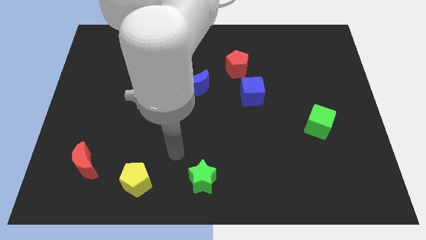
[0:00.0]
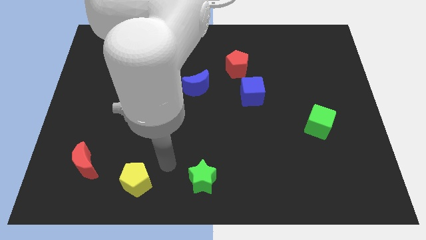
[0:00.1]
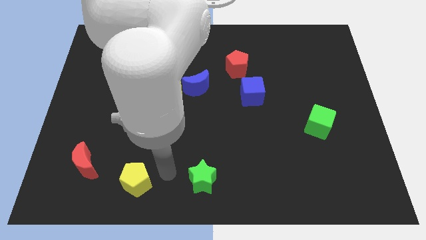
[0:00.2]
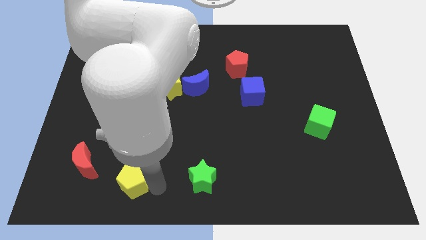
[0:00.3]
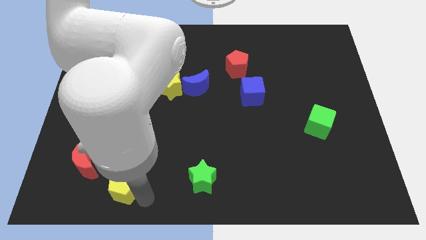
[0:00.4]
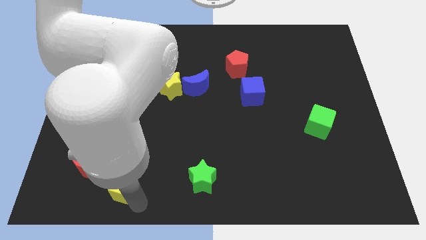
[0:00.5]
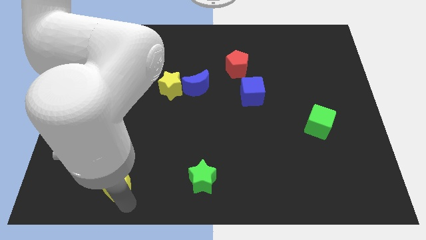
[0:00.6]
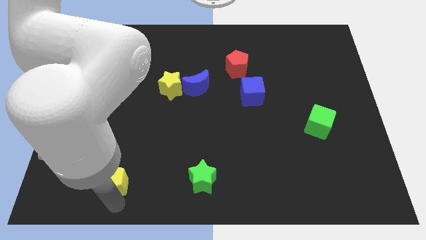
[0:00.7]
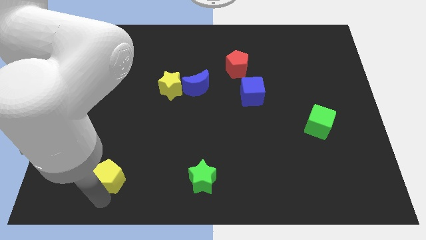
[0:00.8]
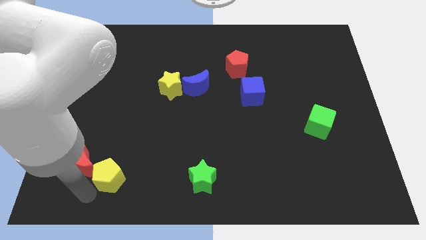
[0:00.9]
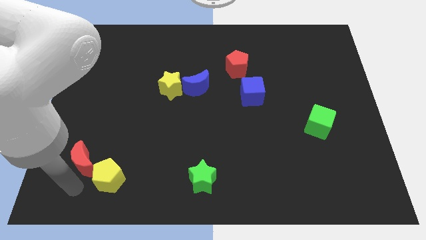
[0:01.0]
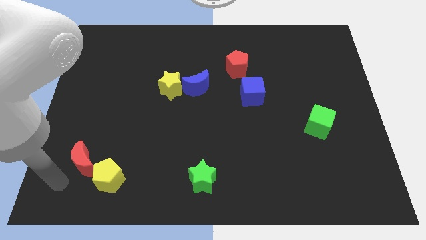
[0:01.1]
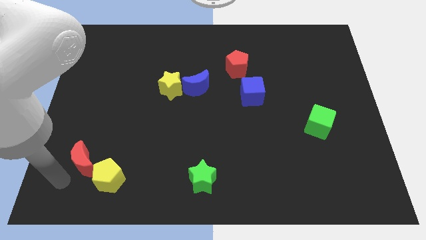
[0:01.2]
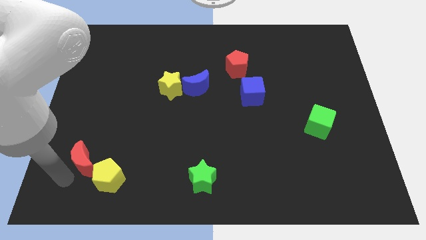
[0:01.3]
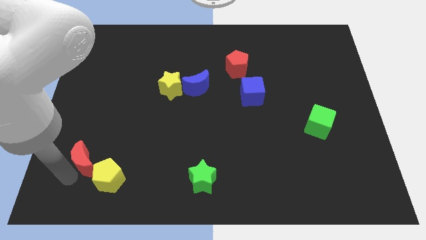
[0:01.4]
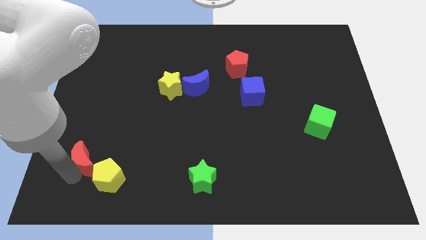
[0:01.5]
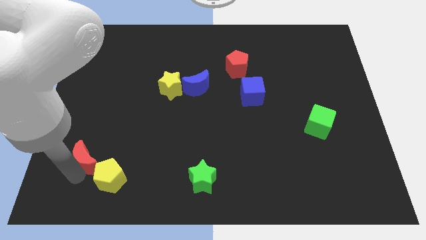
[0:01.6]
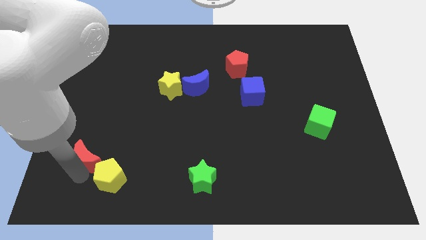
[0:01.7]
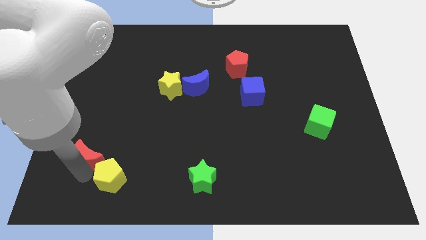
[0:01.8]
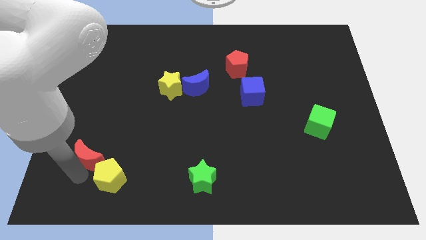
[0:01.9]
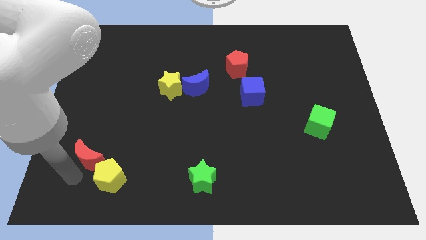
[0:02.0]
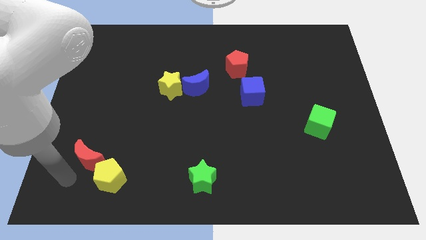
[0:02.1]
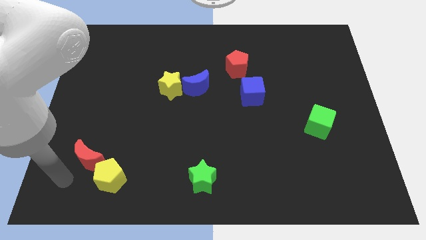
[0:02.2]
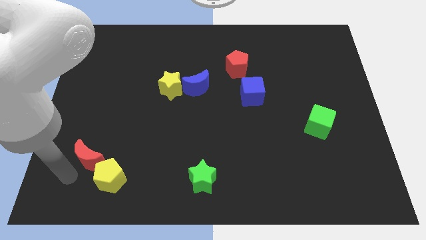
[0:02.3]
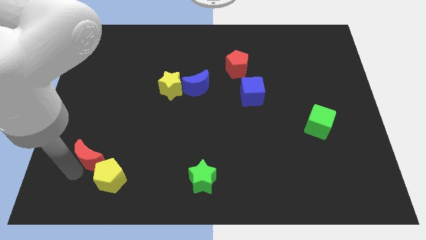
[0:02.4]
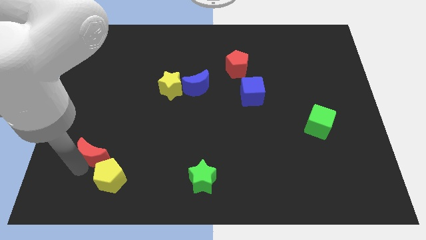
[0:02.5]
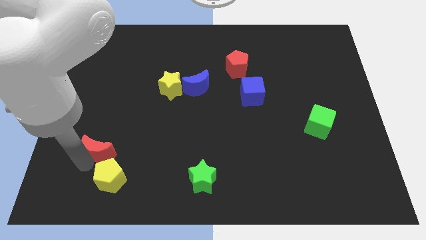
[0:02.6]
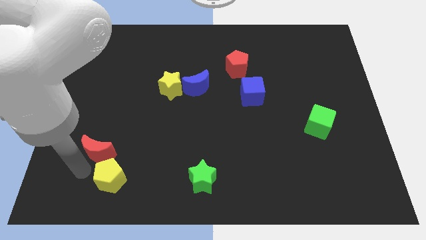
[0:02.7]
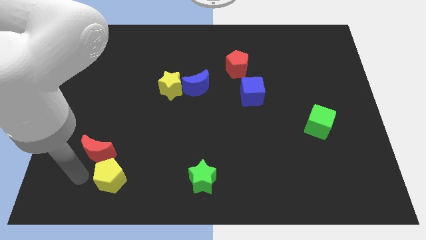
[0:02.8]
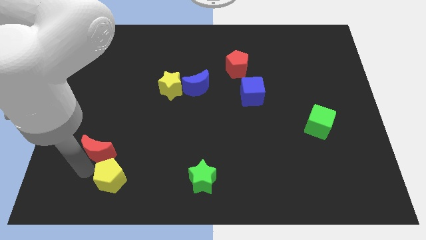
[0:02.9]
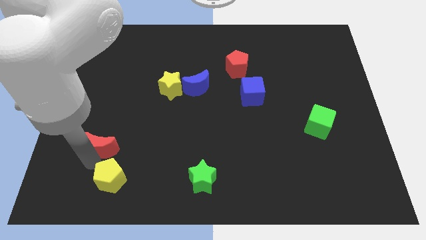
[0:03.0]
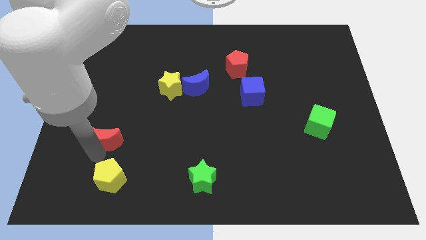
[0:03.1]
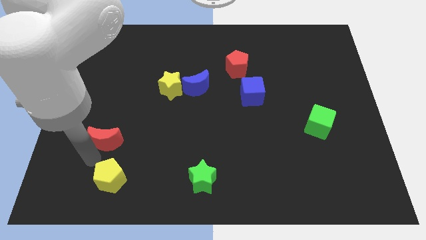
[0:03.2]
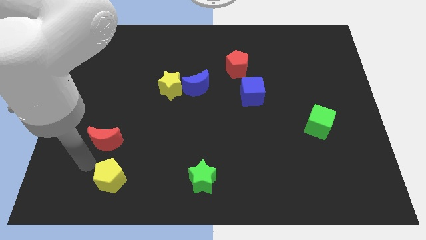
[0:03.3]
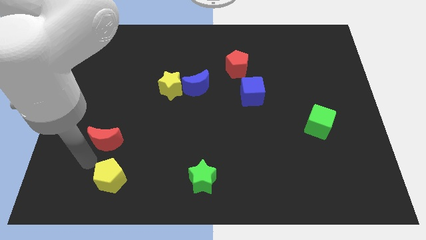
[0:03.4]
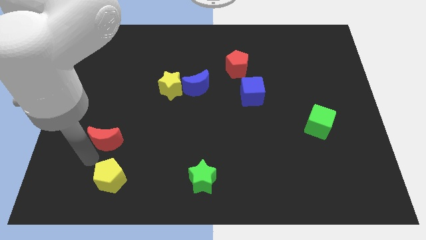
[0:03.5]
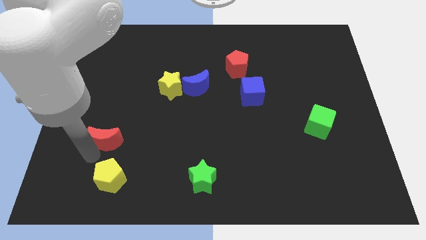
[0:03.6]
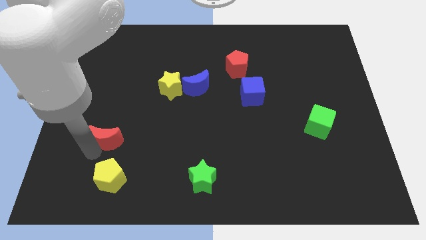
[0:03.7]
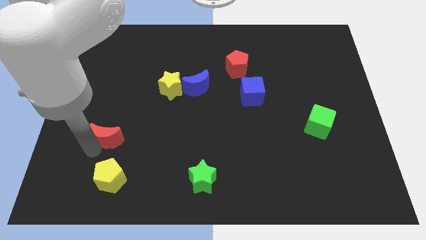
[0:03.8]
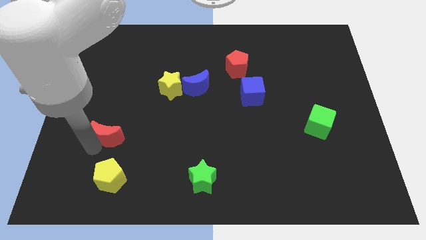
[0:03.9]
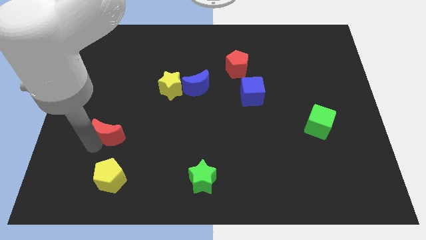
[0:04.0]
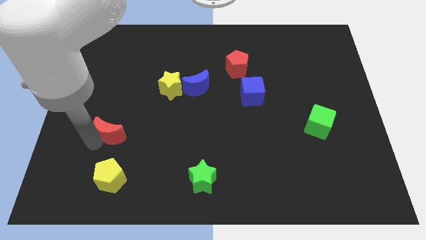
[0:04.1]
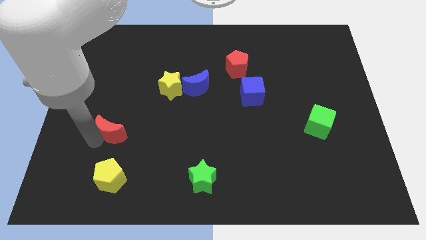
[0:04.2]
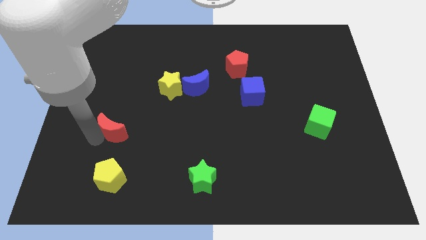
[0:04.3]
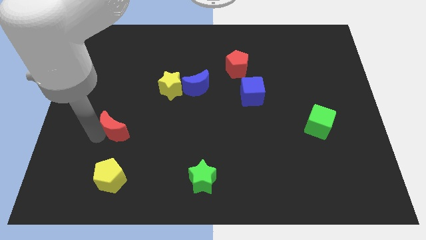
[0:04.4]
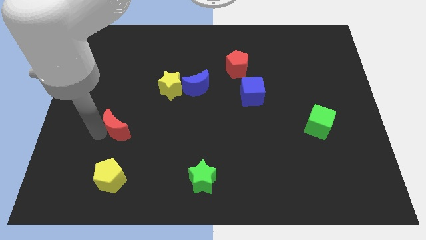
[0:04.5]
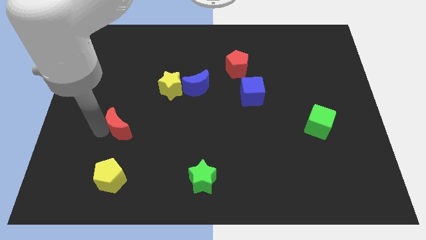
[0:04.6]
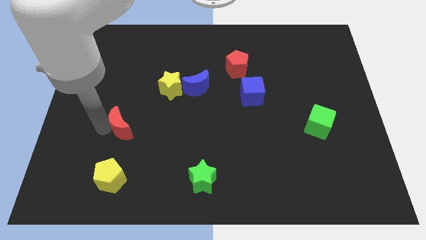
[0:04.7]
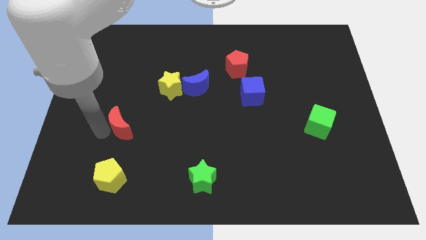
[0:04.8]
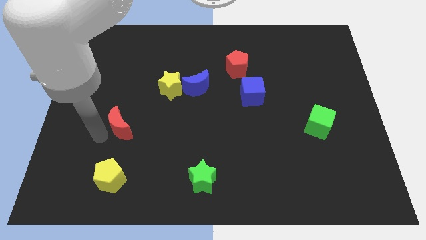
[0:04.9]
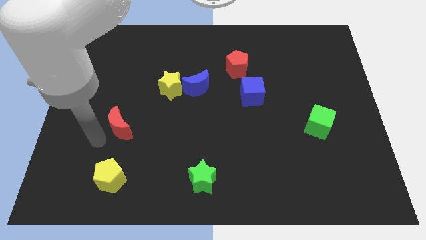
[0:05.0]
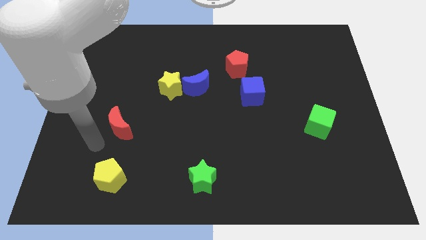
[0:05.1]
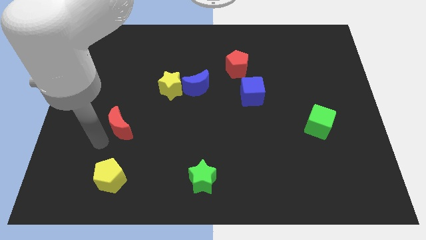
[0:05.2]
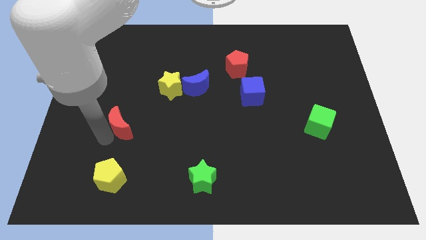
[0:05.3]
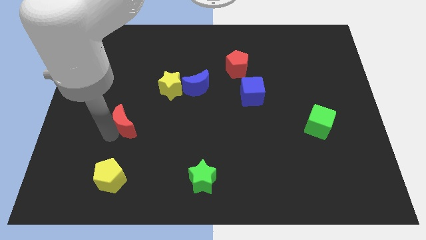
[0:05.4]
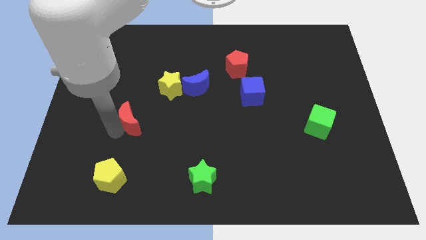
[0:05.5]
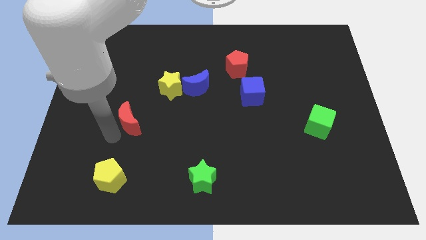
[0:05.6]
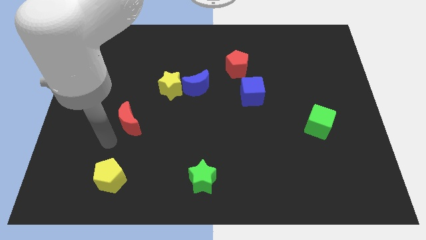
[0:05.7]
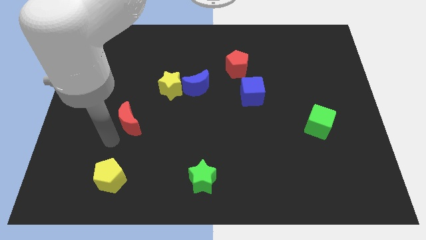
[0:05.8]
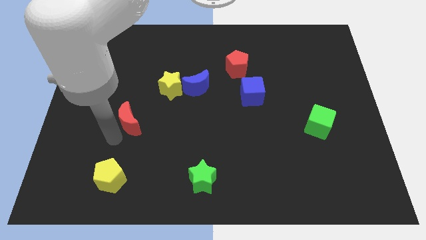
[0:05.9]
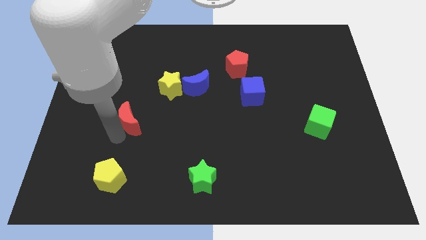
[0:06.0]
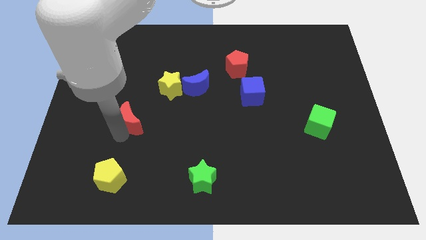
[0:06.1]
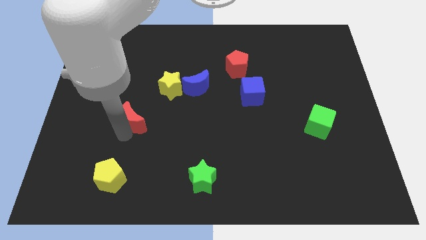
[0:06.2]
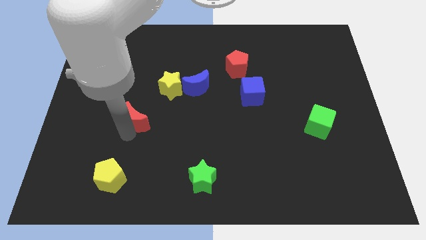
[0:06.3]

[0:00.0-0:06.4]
slide the red moon to the bottom left side of the yellow star

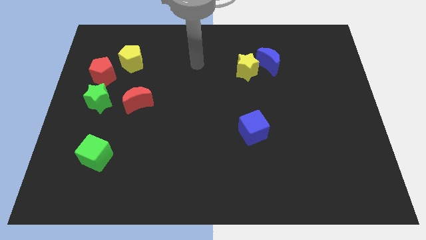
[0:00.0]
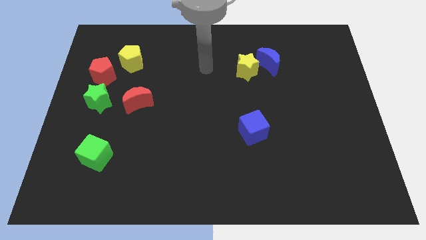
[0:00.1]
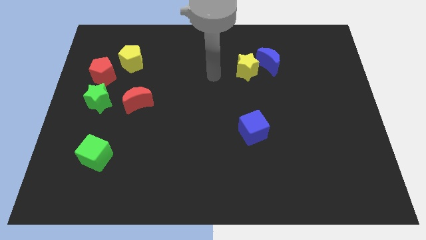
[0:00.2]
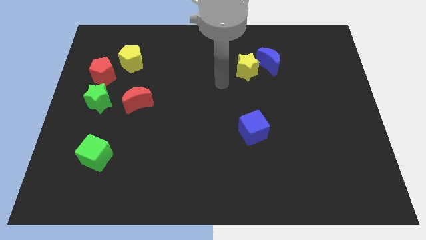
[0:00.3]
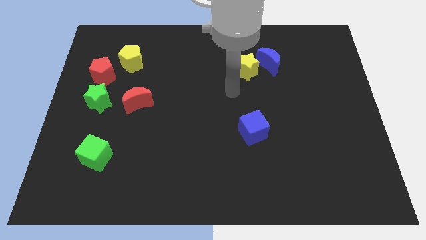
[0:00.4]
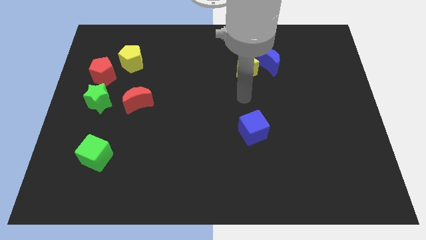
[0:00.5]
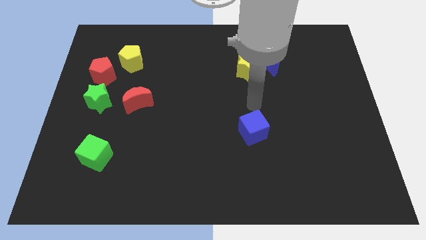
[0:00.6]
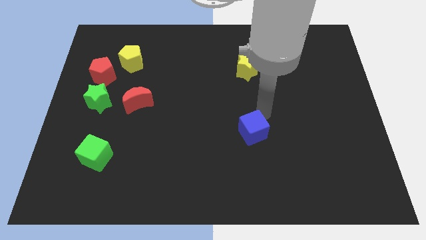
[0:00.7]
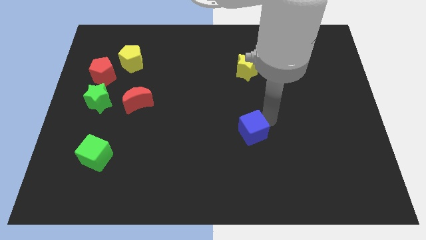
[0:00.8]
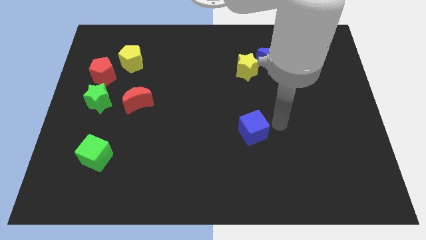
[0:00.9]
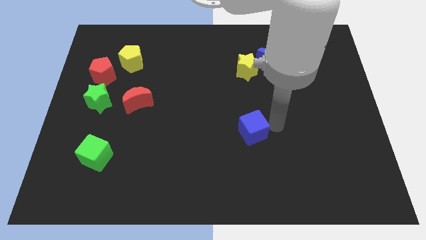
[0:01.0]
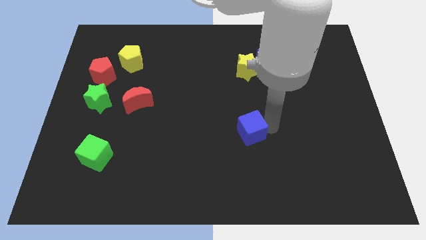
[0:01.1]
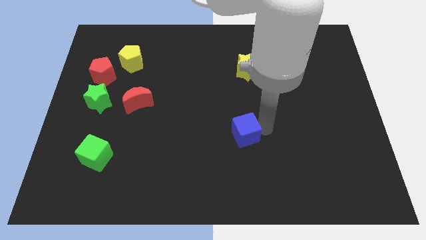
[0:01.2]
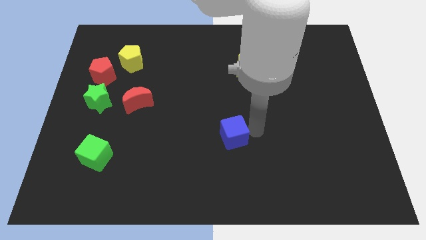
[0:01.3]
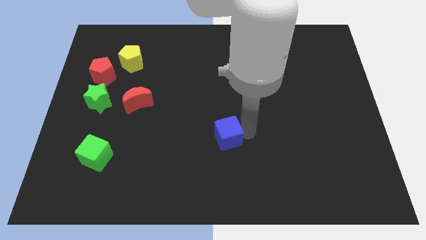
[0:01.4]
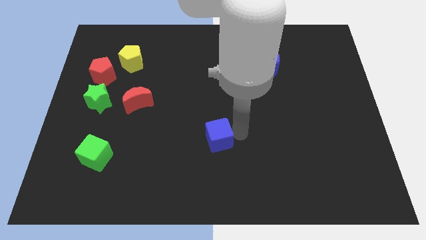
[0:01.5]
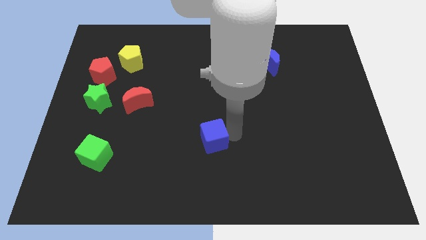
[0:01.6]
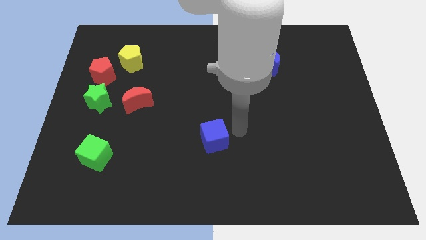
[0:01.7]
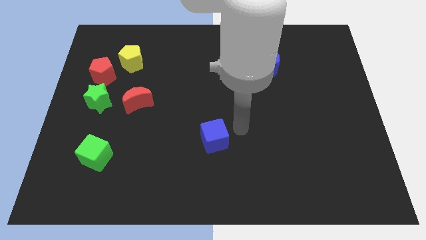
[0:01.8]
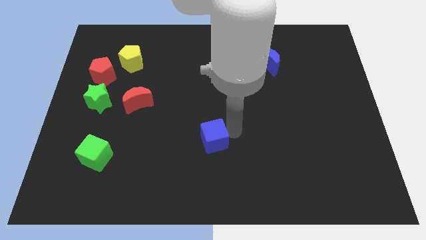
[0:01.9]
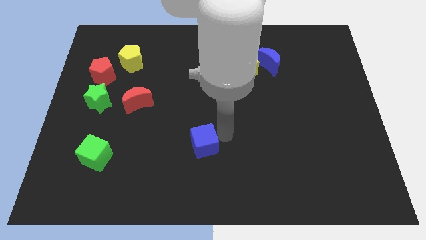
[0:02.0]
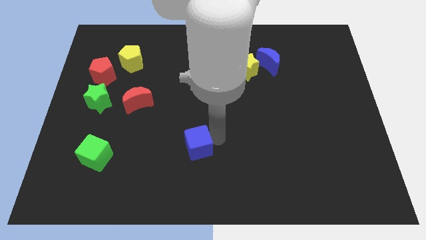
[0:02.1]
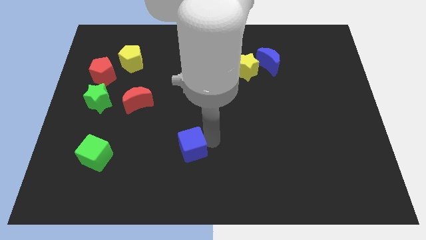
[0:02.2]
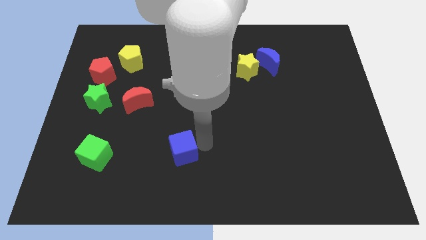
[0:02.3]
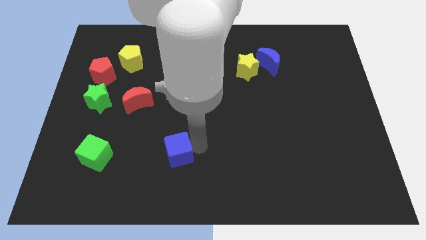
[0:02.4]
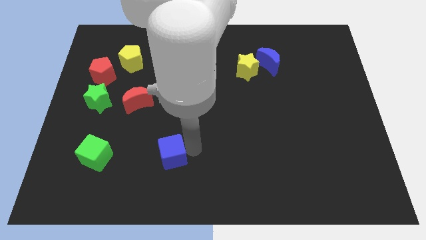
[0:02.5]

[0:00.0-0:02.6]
put the blue cube to the right side of the green cube
